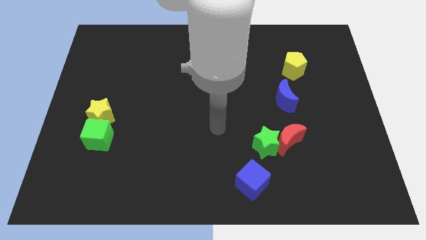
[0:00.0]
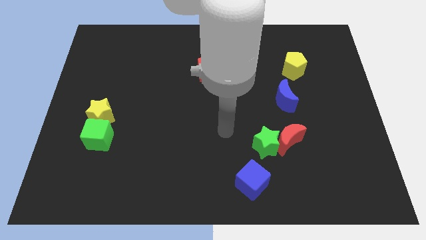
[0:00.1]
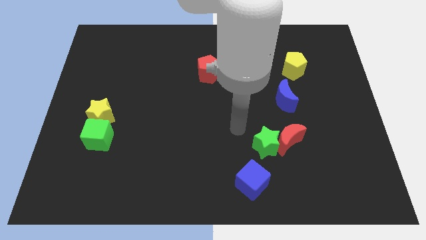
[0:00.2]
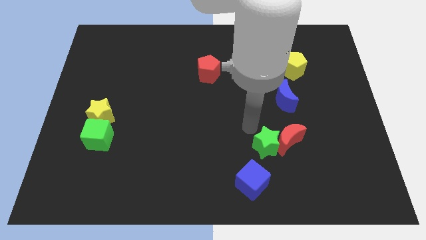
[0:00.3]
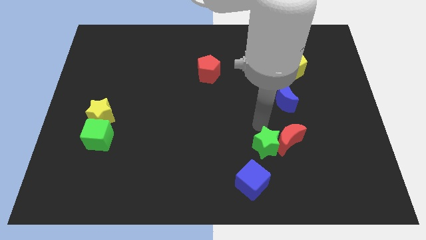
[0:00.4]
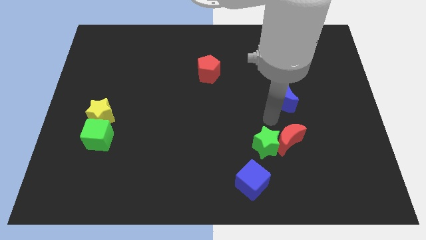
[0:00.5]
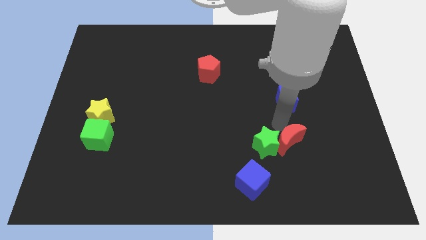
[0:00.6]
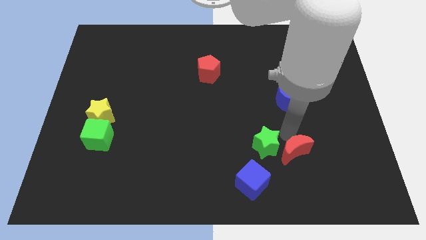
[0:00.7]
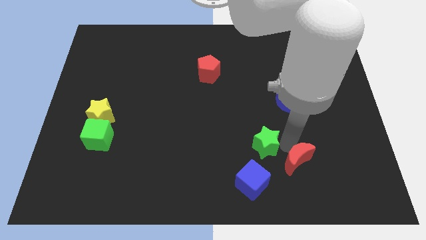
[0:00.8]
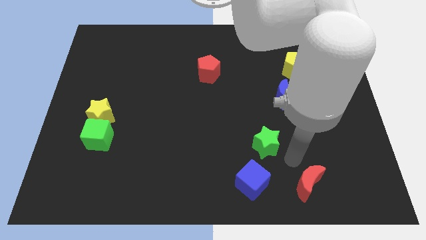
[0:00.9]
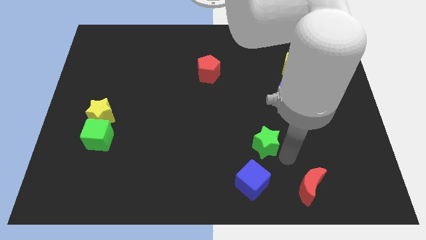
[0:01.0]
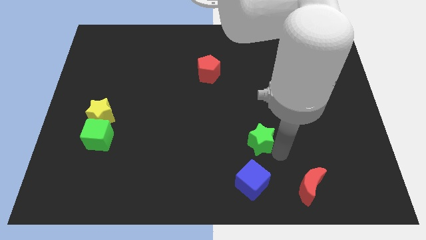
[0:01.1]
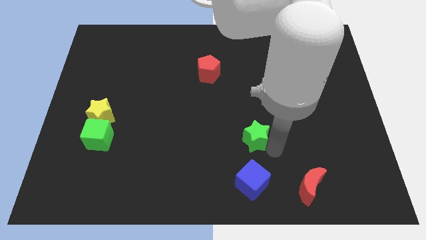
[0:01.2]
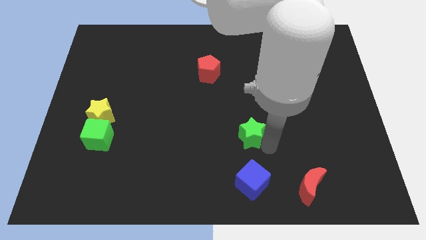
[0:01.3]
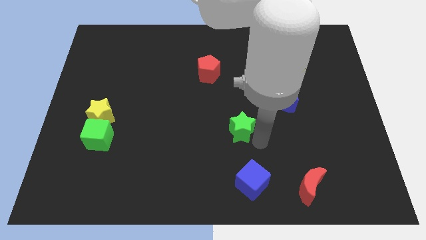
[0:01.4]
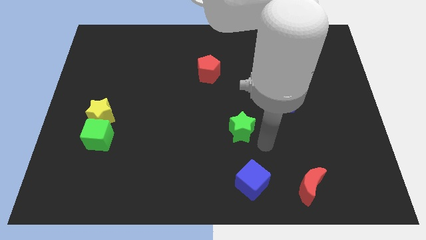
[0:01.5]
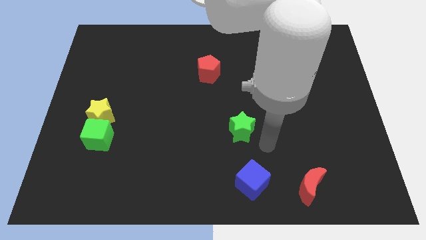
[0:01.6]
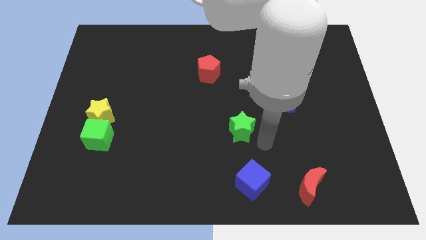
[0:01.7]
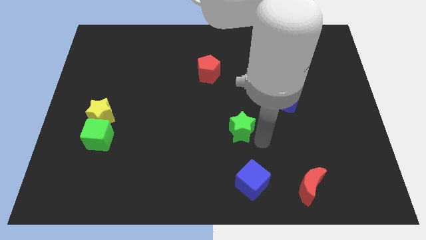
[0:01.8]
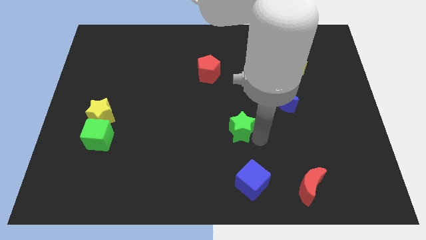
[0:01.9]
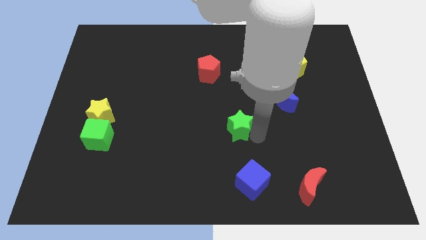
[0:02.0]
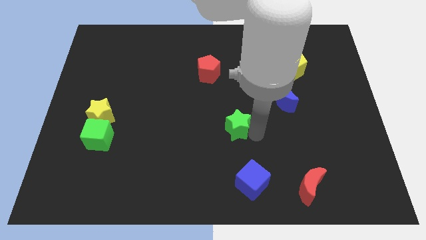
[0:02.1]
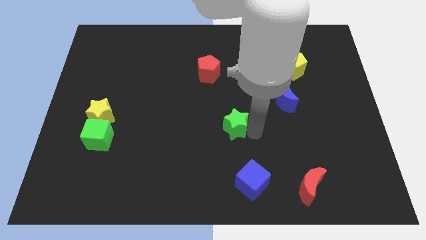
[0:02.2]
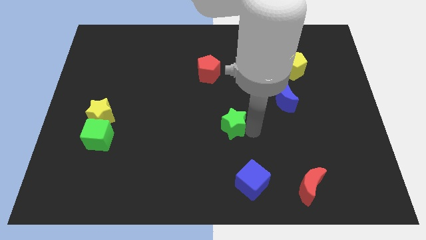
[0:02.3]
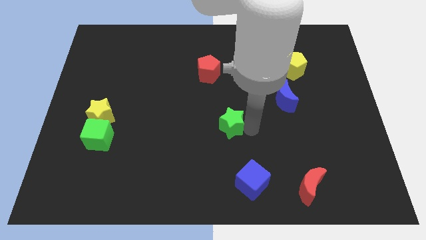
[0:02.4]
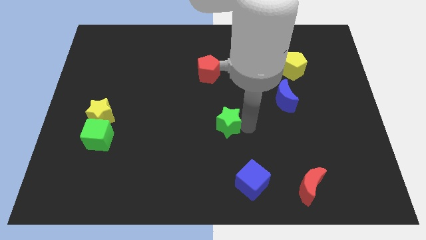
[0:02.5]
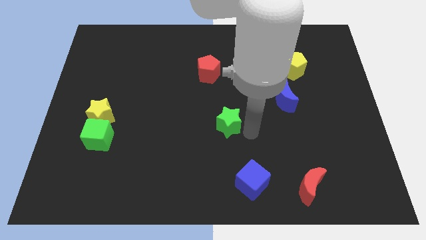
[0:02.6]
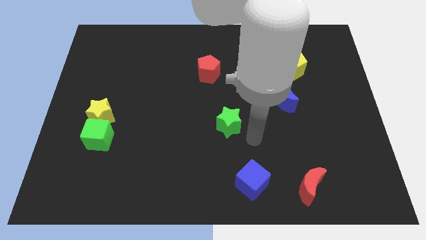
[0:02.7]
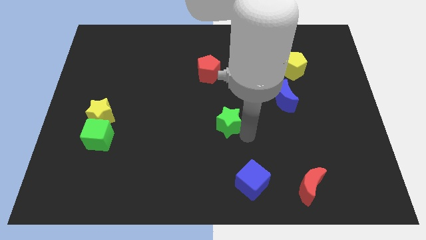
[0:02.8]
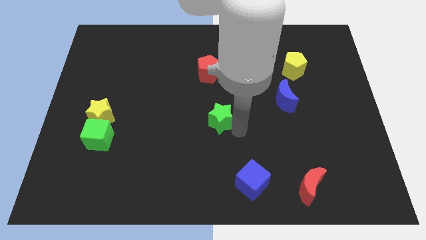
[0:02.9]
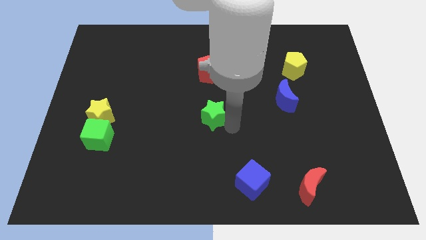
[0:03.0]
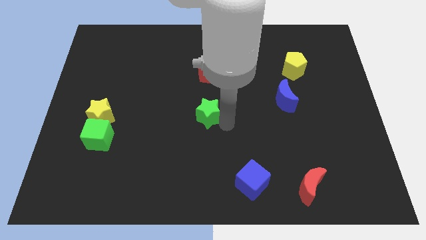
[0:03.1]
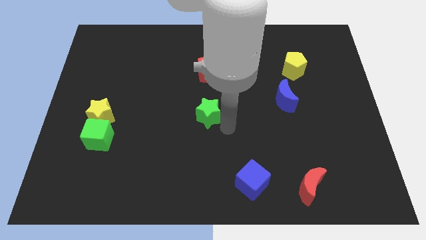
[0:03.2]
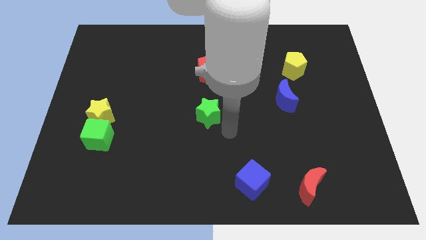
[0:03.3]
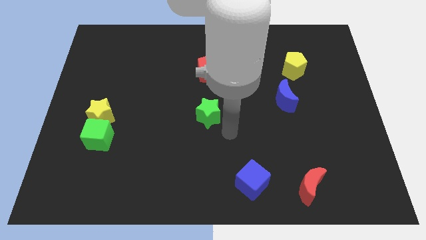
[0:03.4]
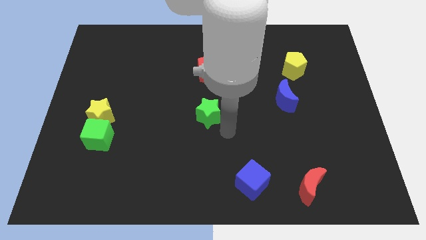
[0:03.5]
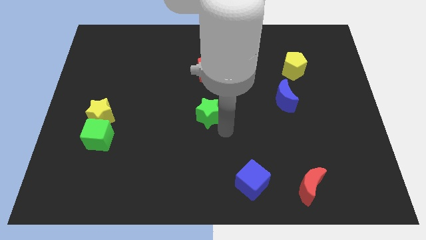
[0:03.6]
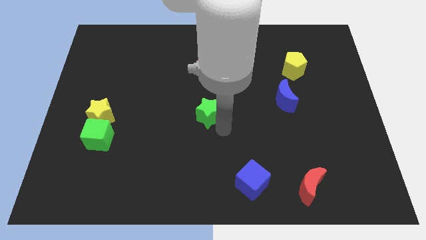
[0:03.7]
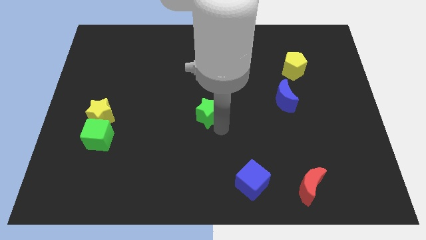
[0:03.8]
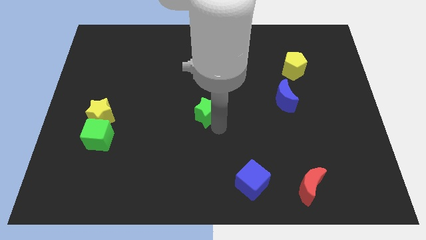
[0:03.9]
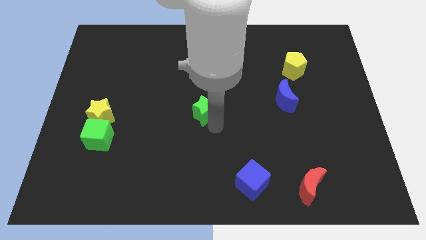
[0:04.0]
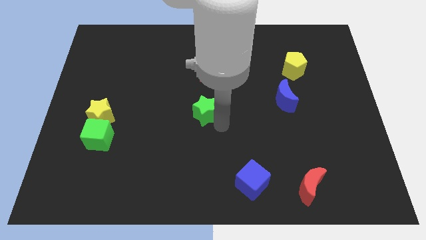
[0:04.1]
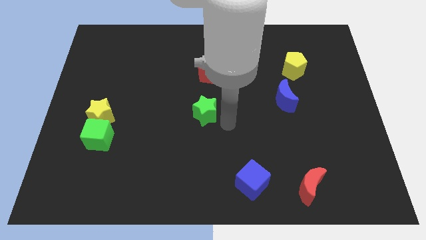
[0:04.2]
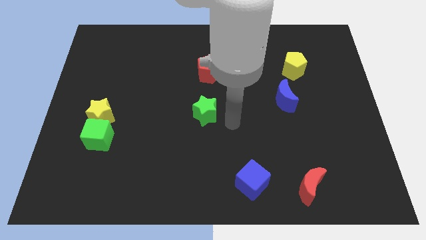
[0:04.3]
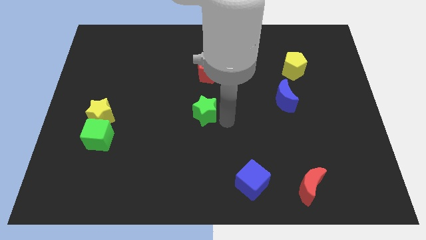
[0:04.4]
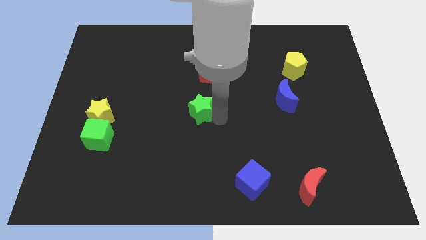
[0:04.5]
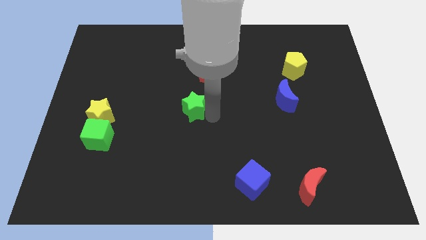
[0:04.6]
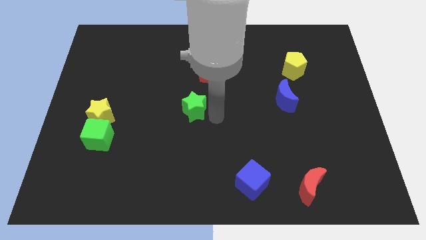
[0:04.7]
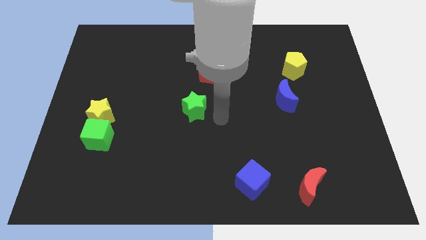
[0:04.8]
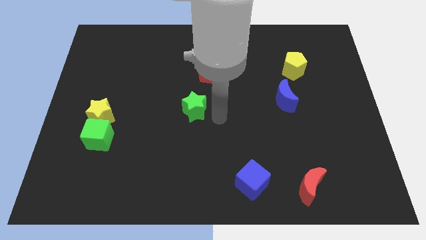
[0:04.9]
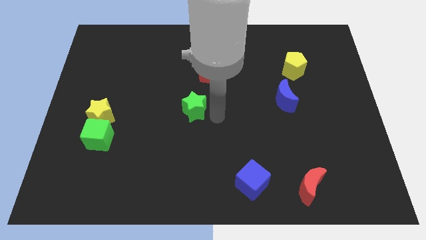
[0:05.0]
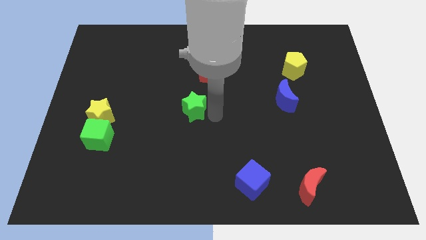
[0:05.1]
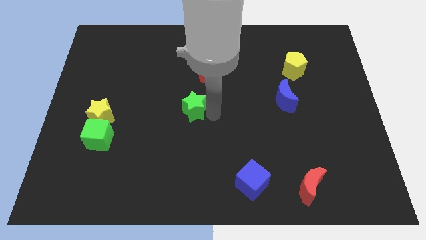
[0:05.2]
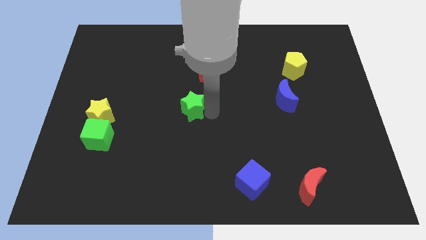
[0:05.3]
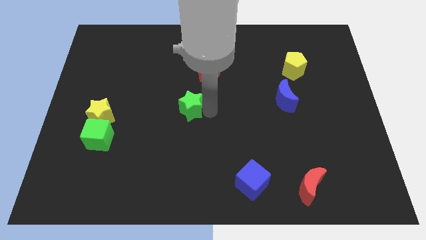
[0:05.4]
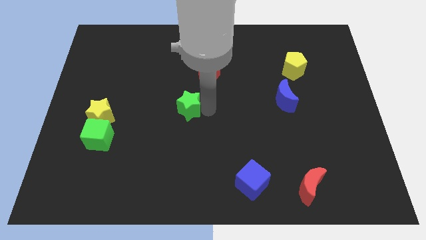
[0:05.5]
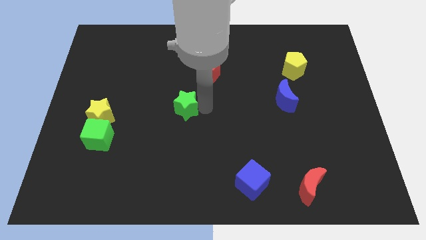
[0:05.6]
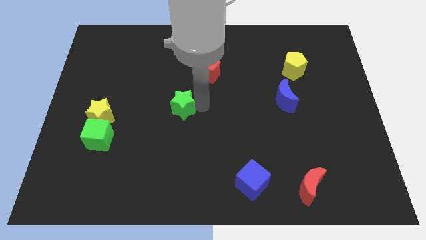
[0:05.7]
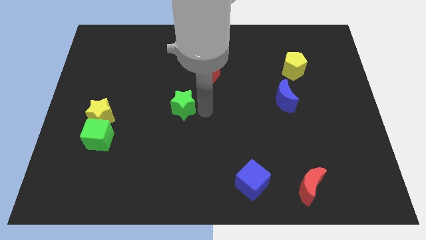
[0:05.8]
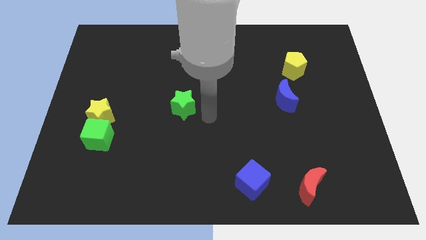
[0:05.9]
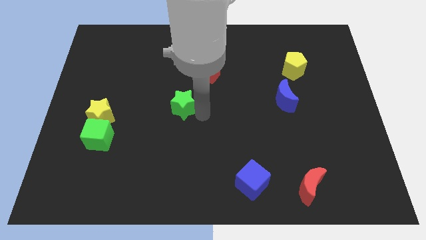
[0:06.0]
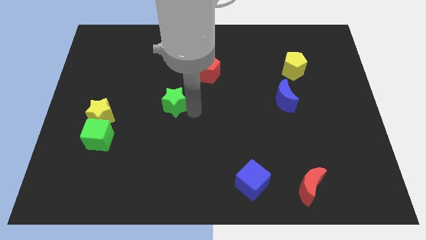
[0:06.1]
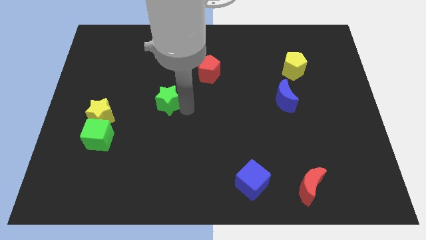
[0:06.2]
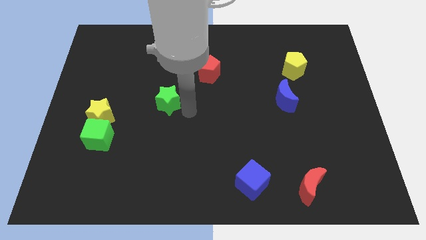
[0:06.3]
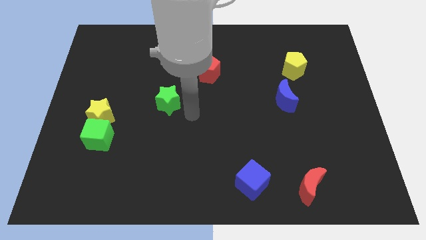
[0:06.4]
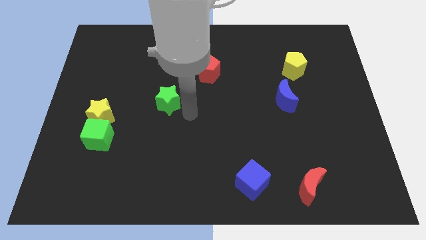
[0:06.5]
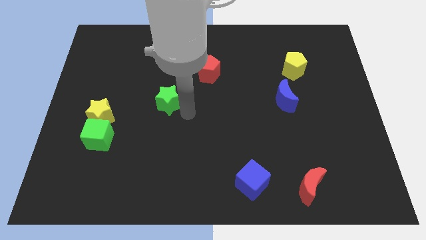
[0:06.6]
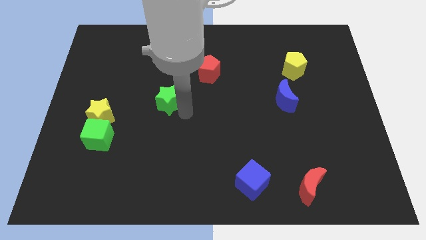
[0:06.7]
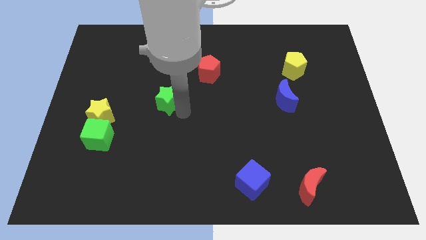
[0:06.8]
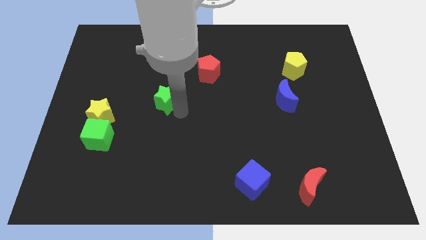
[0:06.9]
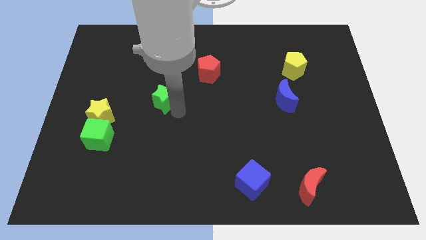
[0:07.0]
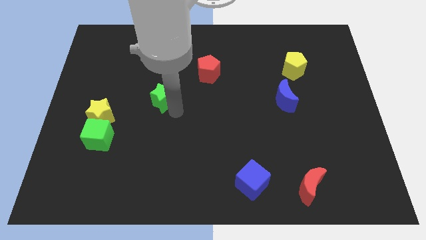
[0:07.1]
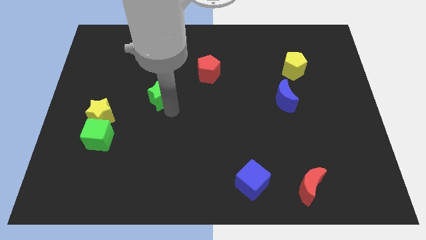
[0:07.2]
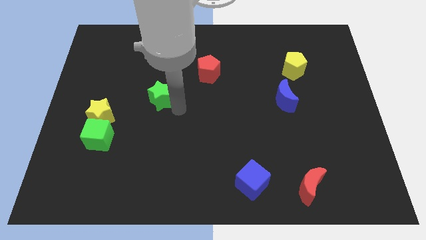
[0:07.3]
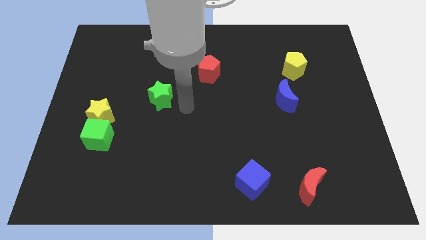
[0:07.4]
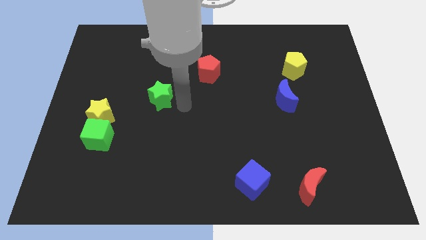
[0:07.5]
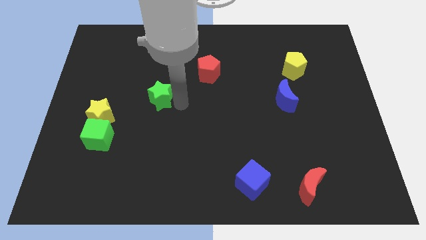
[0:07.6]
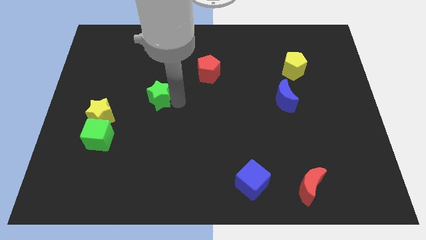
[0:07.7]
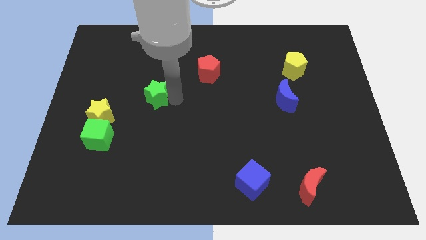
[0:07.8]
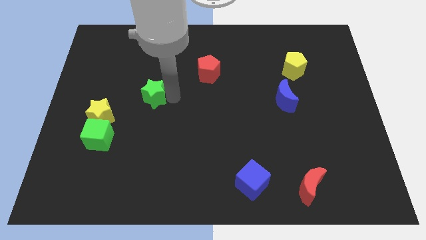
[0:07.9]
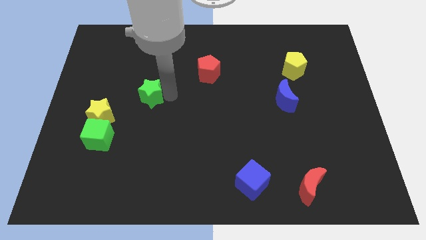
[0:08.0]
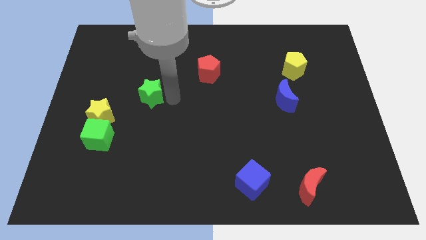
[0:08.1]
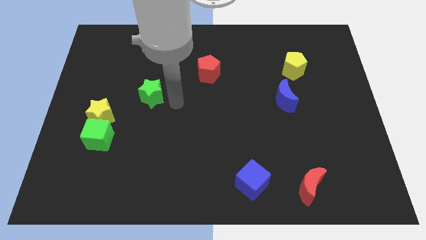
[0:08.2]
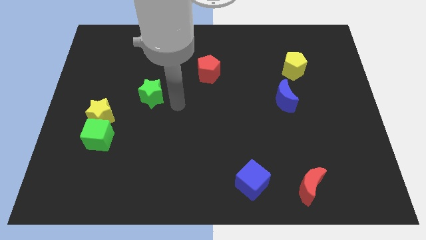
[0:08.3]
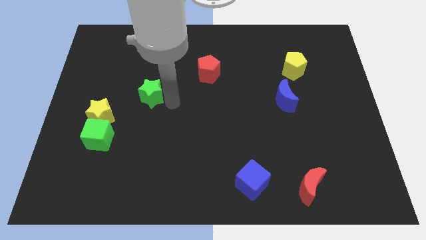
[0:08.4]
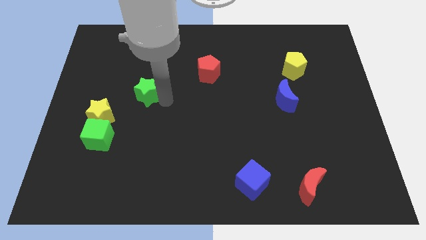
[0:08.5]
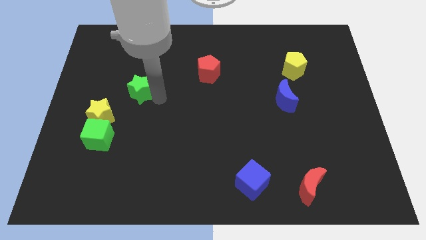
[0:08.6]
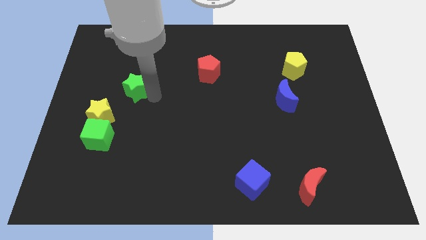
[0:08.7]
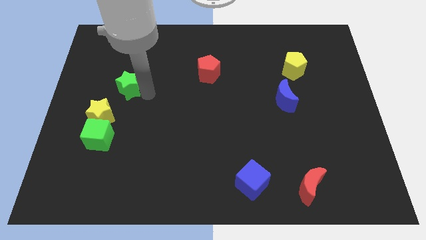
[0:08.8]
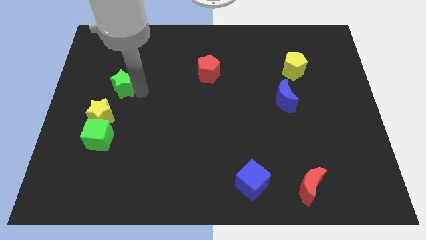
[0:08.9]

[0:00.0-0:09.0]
put the green star to the top side of the yellow star
